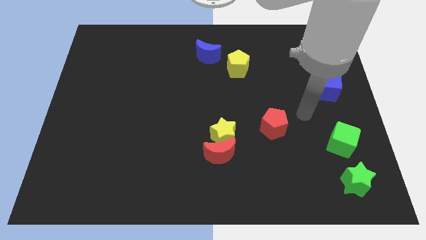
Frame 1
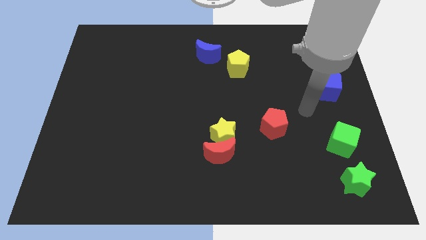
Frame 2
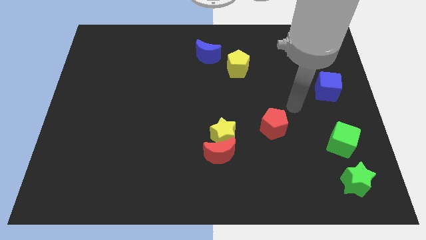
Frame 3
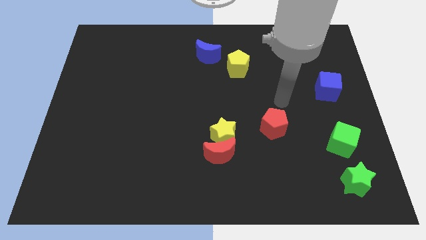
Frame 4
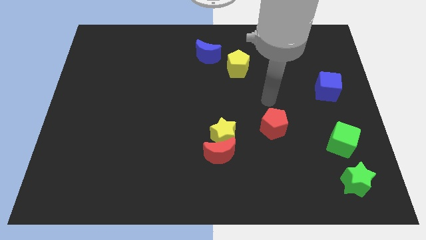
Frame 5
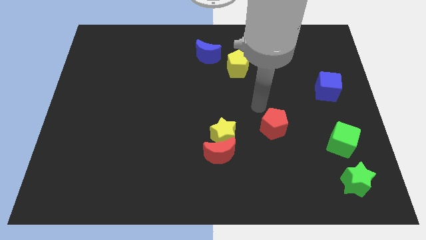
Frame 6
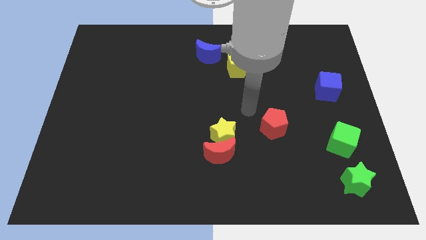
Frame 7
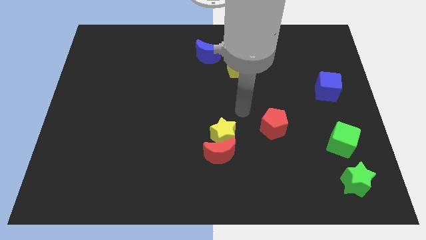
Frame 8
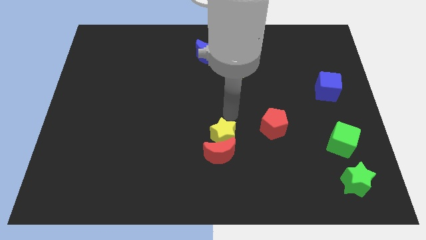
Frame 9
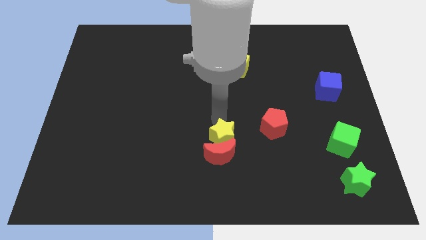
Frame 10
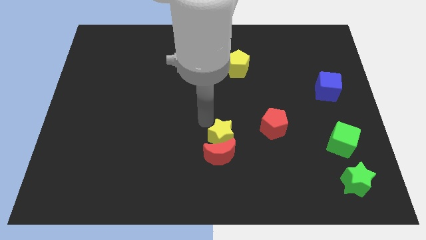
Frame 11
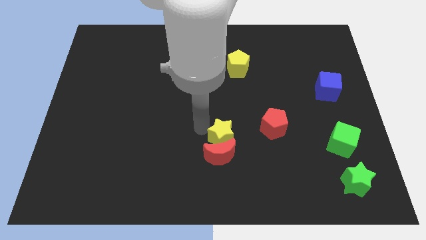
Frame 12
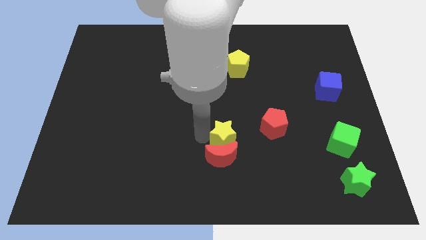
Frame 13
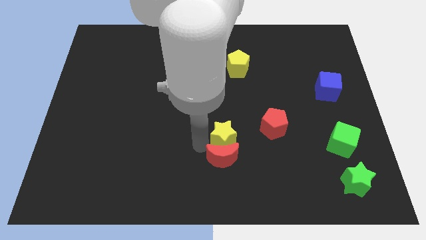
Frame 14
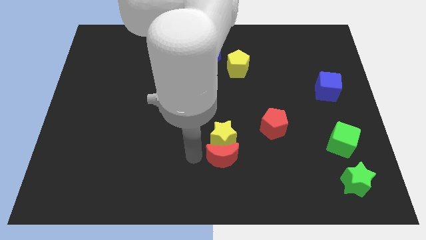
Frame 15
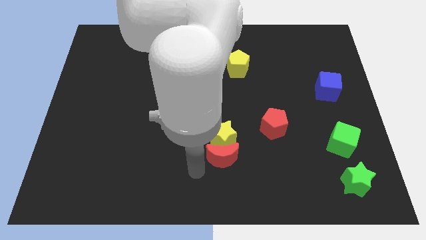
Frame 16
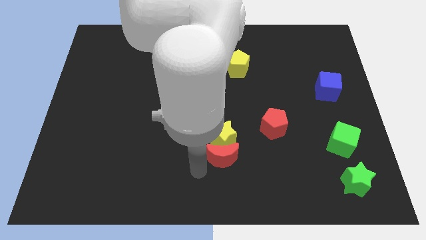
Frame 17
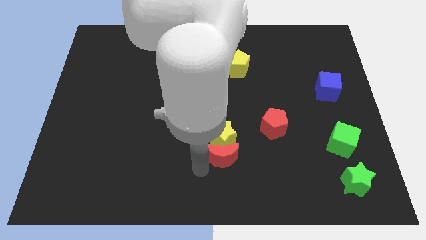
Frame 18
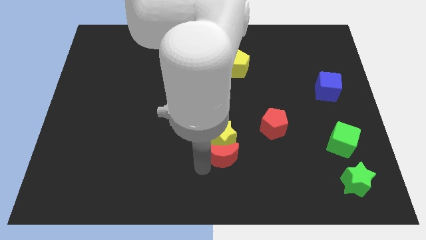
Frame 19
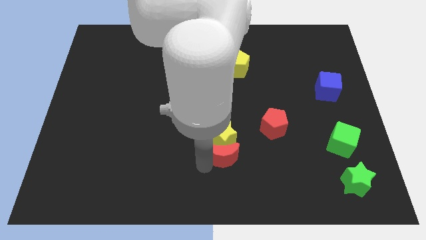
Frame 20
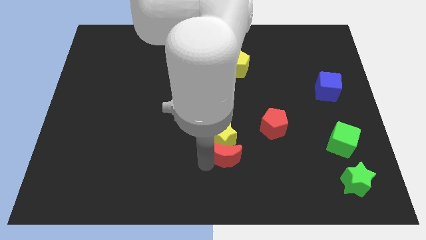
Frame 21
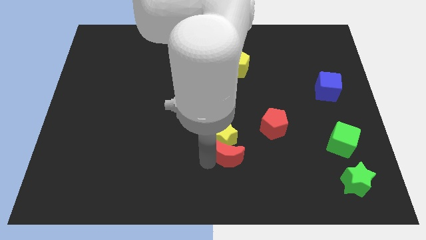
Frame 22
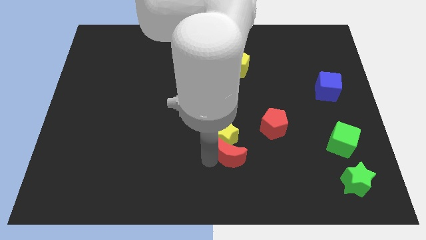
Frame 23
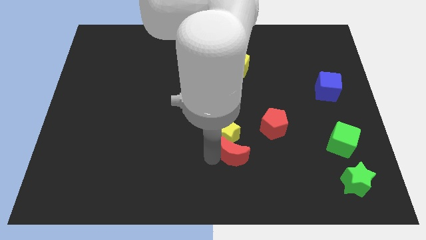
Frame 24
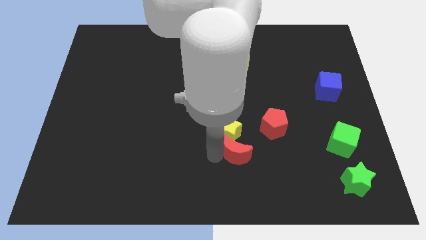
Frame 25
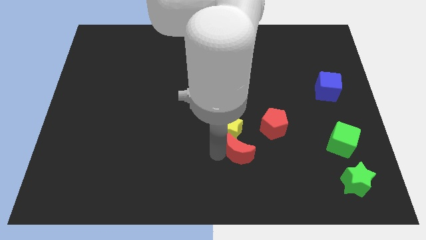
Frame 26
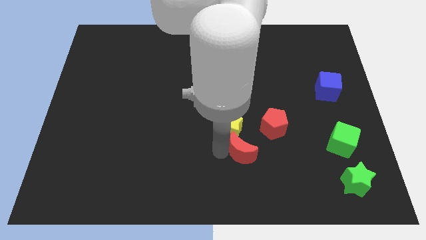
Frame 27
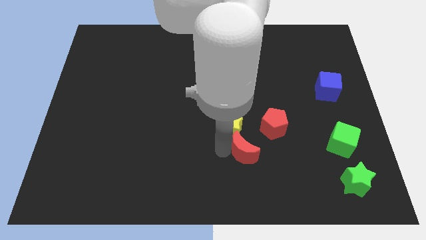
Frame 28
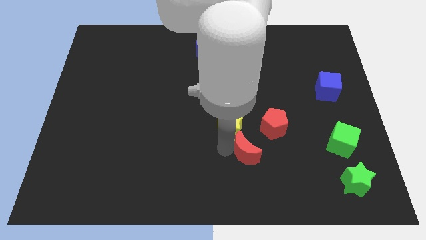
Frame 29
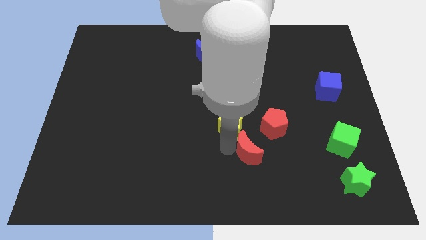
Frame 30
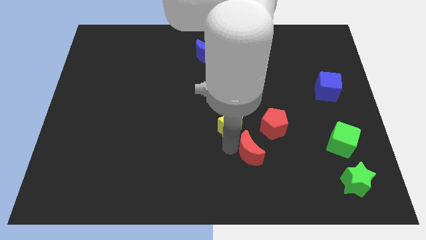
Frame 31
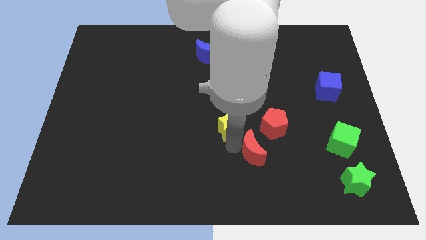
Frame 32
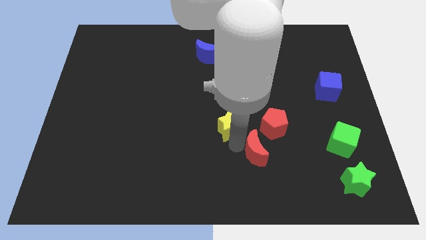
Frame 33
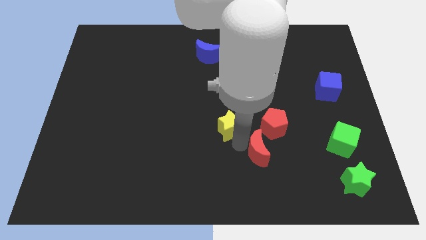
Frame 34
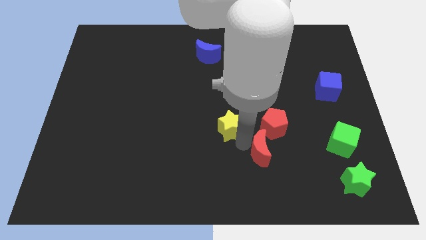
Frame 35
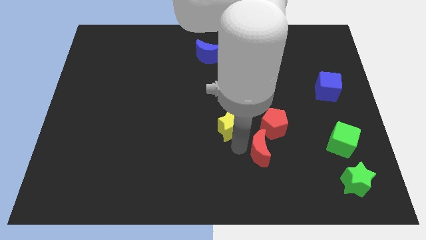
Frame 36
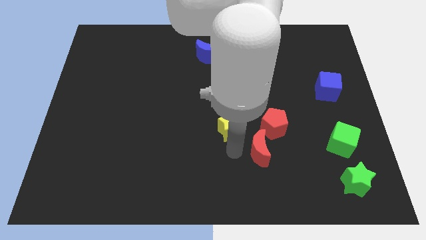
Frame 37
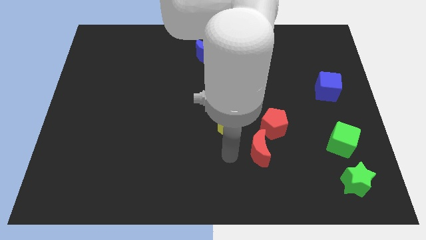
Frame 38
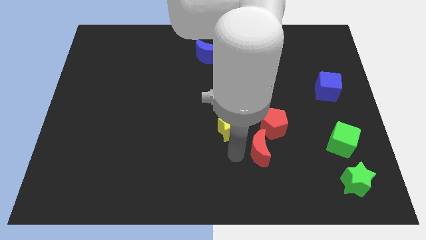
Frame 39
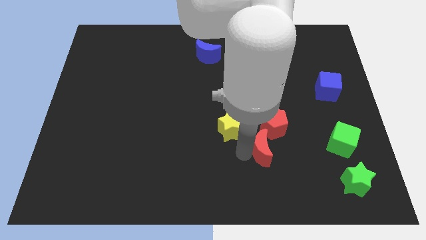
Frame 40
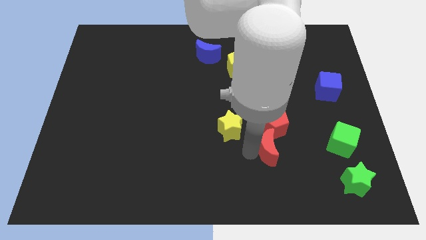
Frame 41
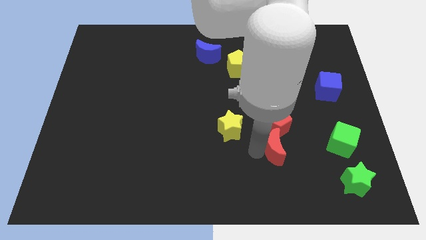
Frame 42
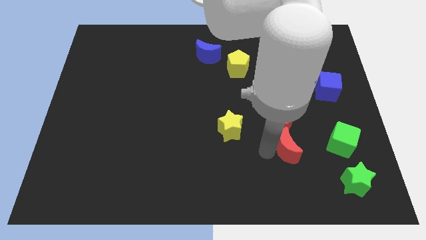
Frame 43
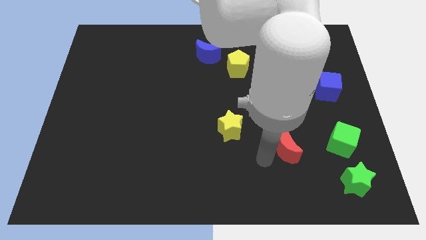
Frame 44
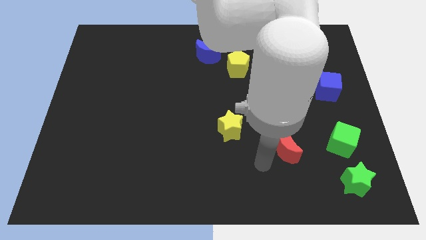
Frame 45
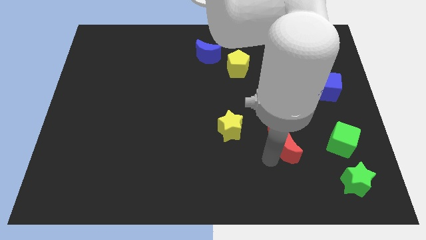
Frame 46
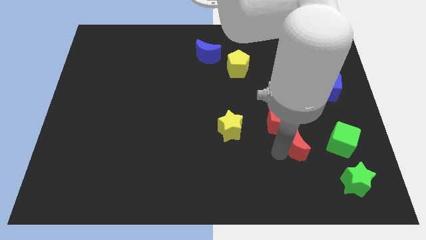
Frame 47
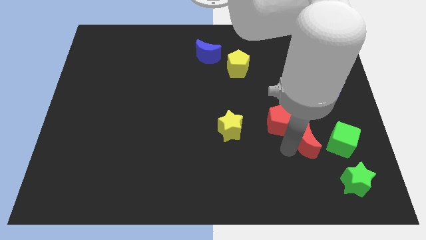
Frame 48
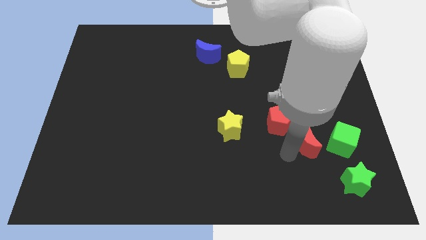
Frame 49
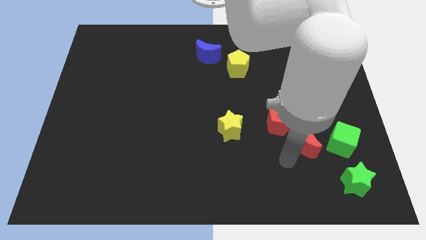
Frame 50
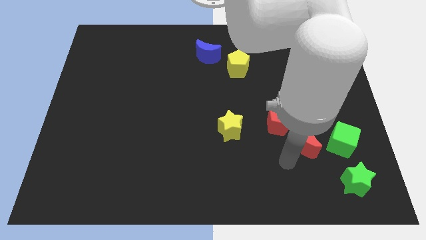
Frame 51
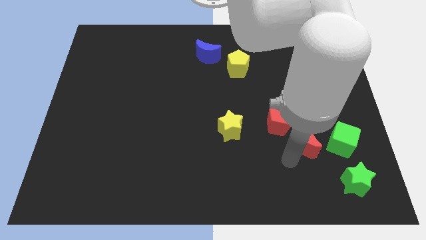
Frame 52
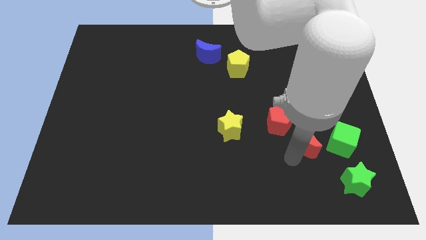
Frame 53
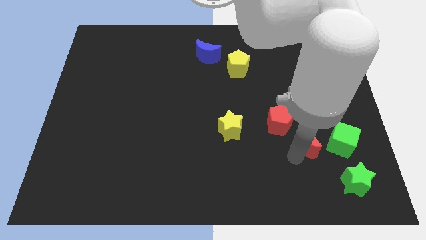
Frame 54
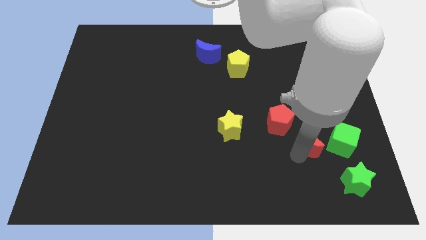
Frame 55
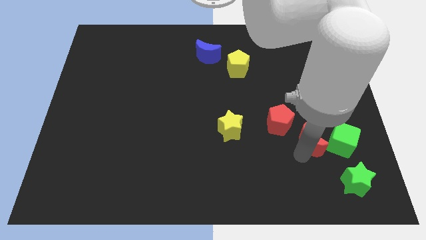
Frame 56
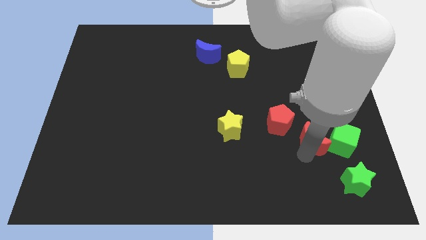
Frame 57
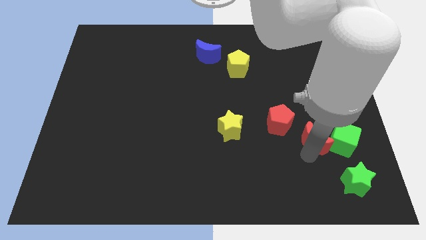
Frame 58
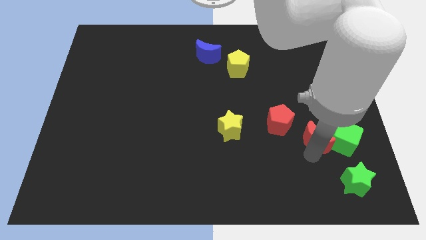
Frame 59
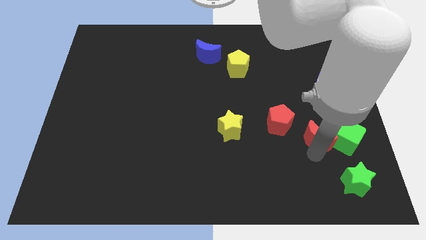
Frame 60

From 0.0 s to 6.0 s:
push the red moon right of the red pentagon

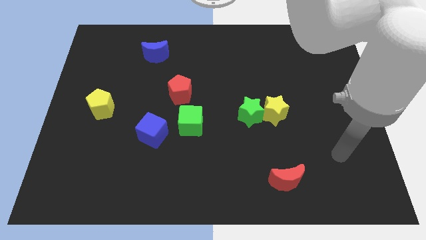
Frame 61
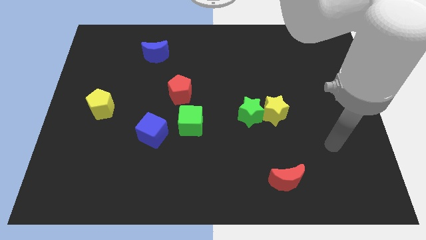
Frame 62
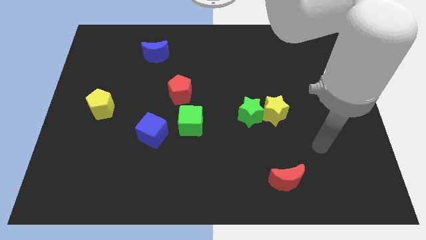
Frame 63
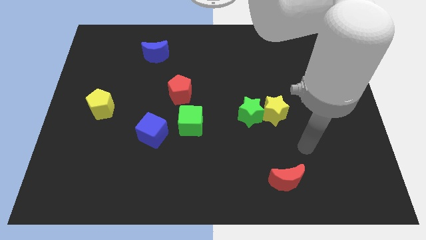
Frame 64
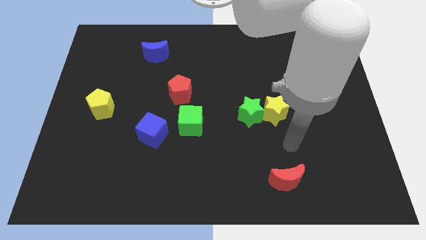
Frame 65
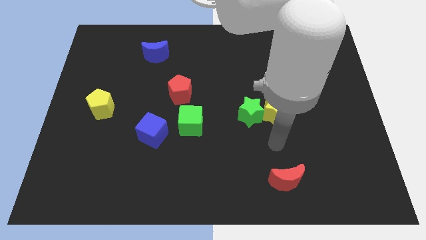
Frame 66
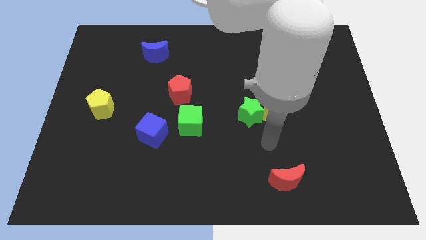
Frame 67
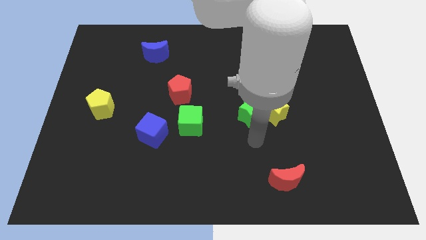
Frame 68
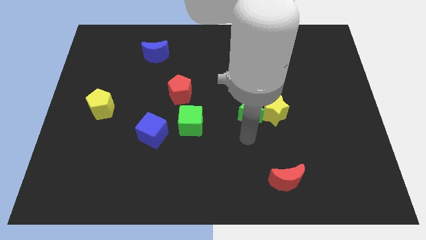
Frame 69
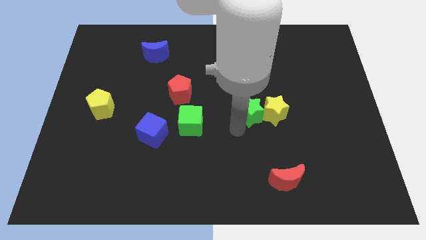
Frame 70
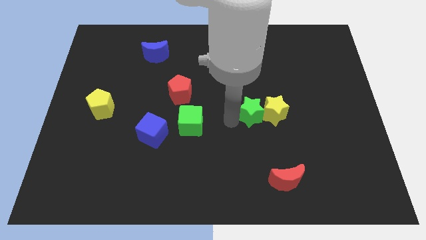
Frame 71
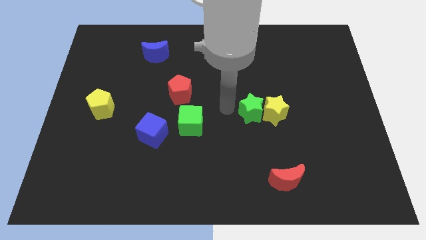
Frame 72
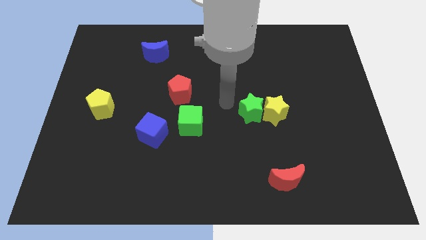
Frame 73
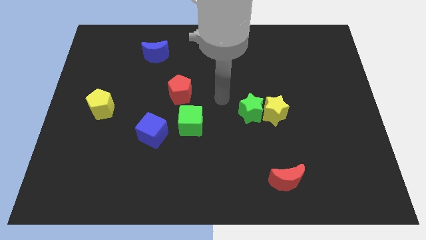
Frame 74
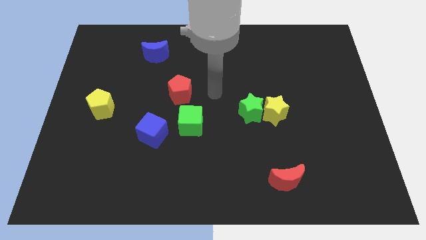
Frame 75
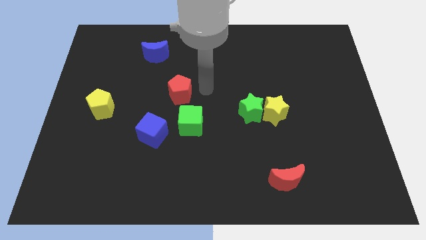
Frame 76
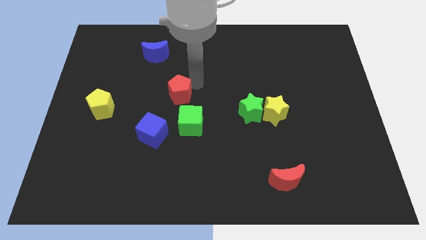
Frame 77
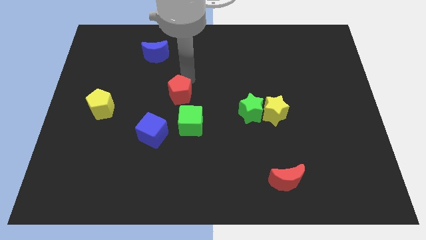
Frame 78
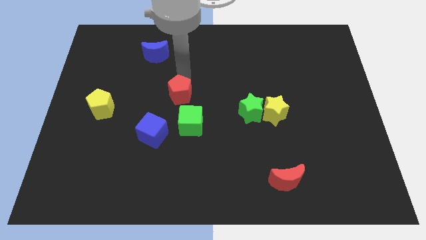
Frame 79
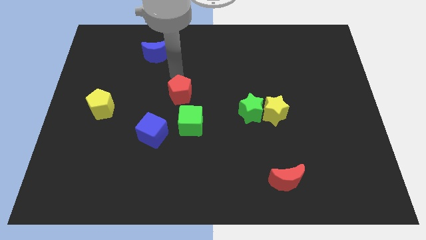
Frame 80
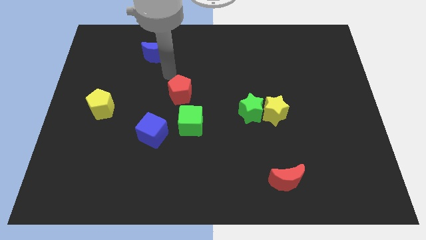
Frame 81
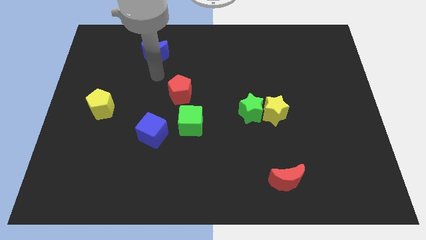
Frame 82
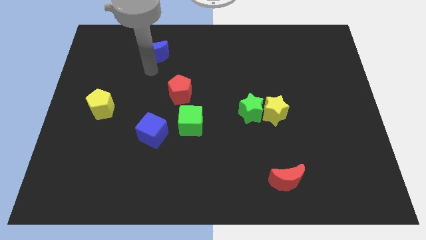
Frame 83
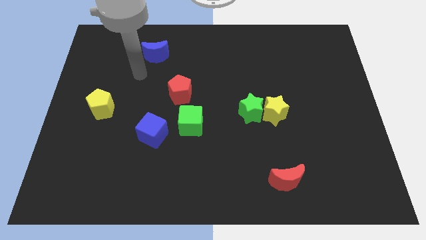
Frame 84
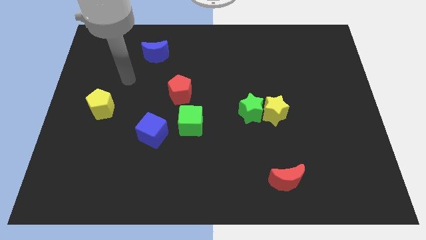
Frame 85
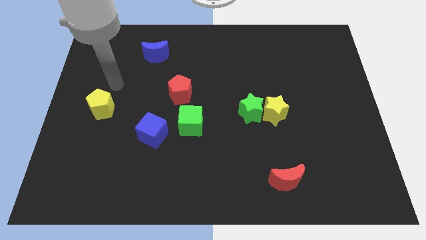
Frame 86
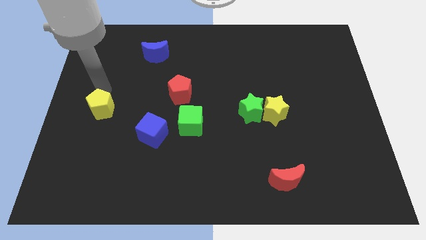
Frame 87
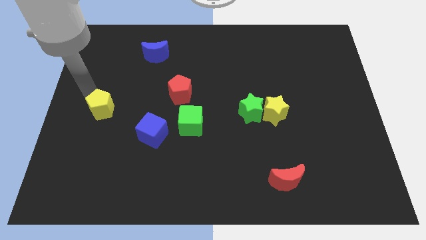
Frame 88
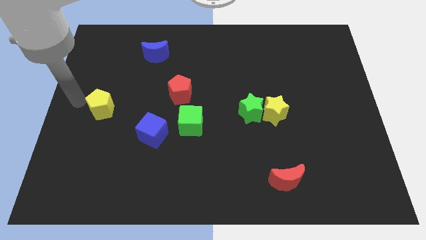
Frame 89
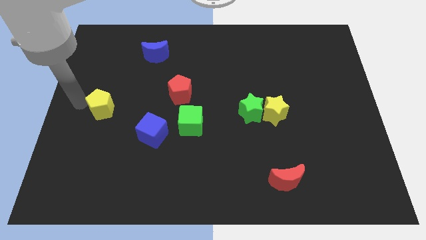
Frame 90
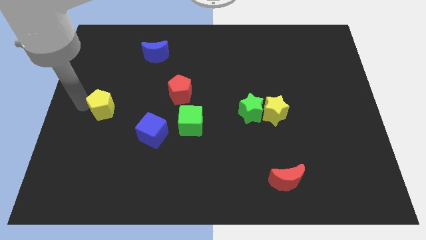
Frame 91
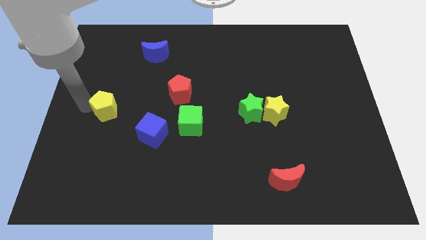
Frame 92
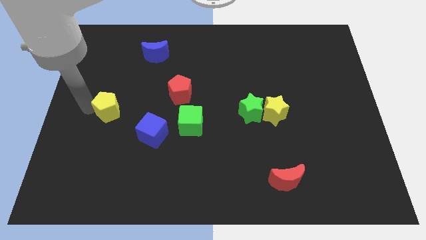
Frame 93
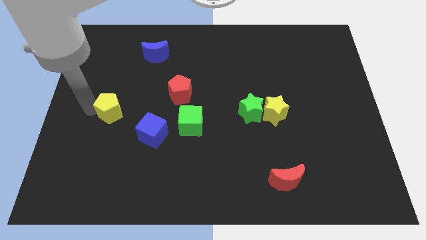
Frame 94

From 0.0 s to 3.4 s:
push the yellow pentagon to the top left side of the blue cube
